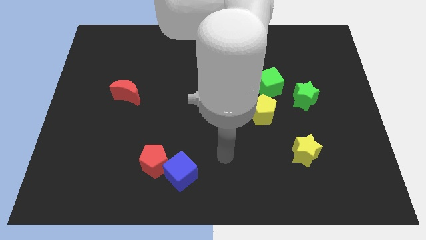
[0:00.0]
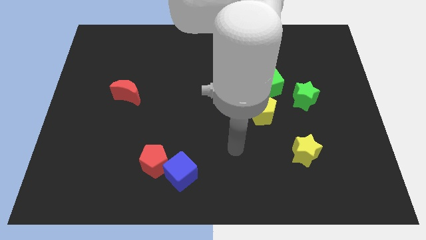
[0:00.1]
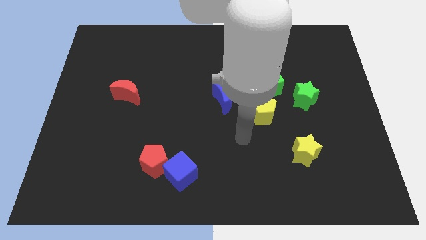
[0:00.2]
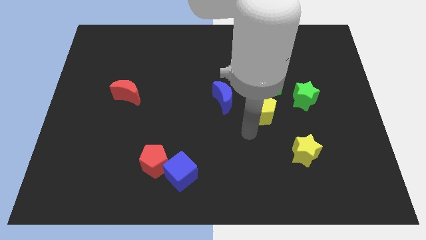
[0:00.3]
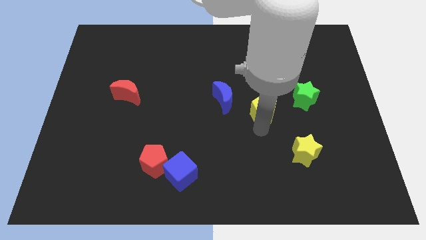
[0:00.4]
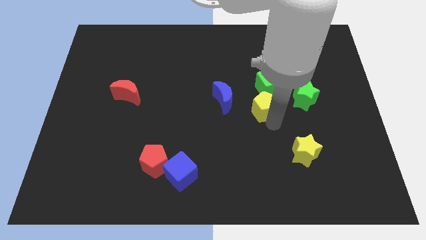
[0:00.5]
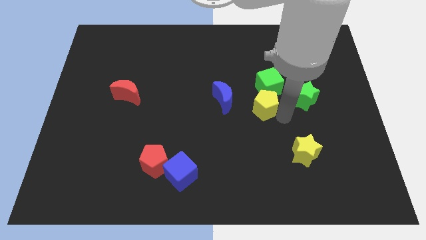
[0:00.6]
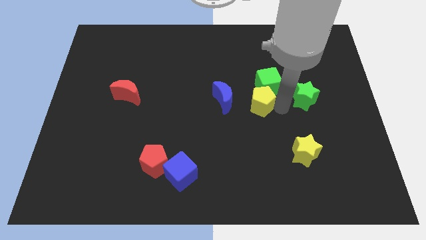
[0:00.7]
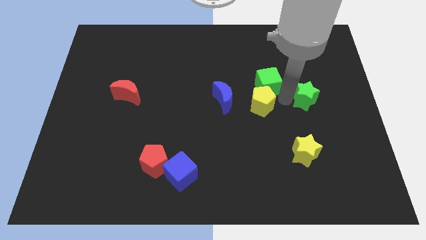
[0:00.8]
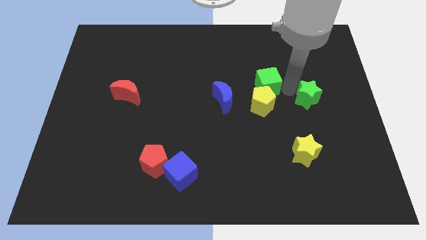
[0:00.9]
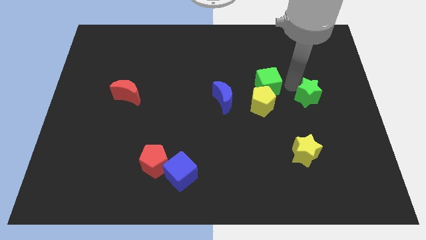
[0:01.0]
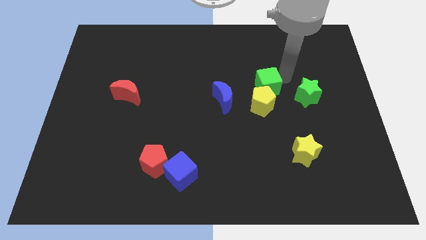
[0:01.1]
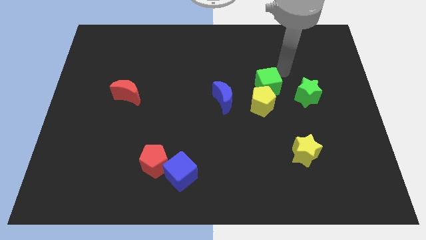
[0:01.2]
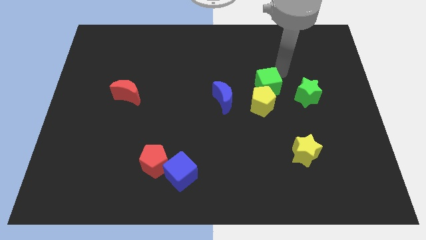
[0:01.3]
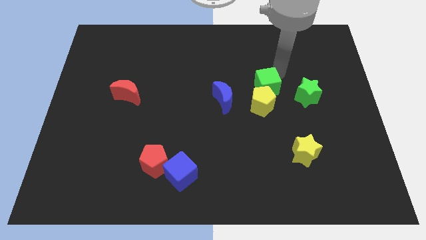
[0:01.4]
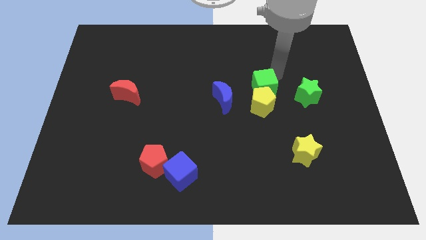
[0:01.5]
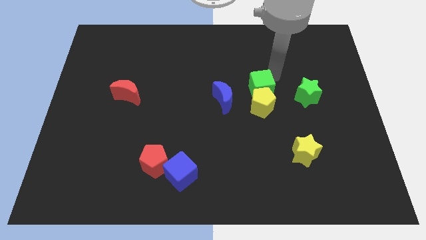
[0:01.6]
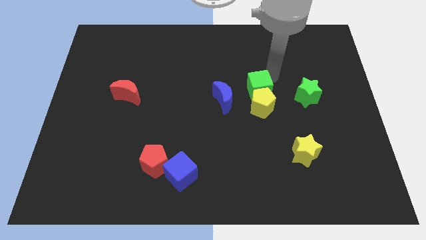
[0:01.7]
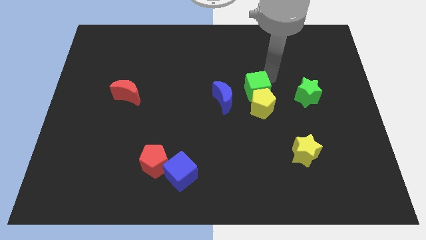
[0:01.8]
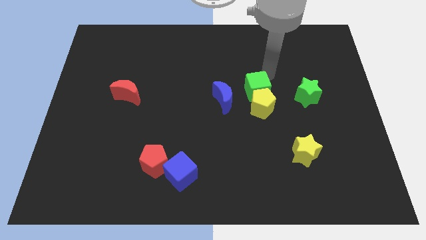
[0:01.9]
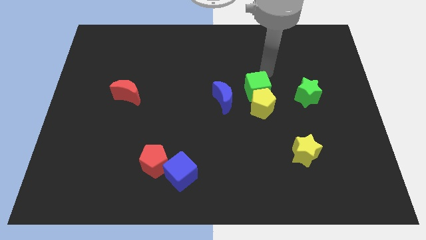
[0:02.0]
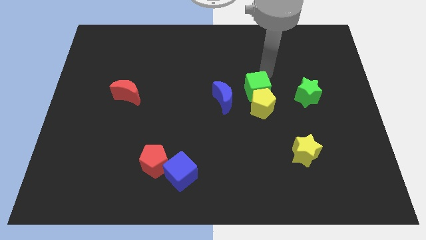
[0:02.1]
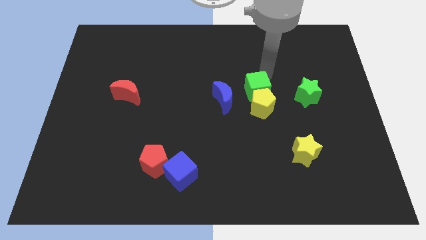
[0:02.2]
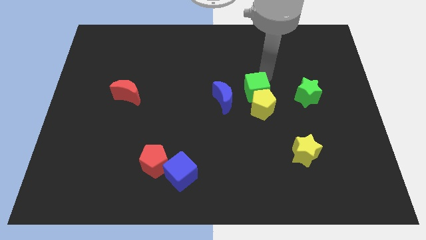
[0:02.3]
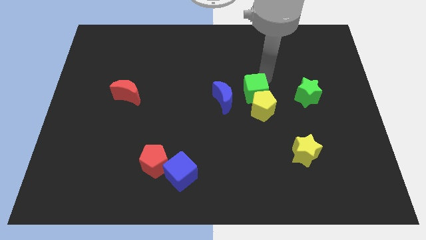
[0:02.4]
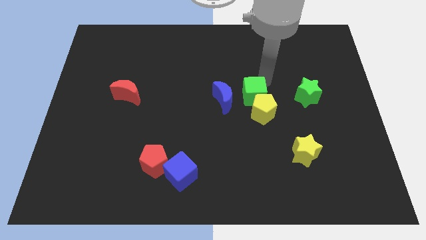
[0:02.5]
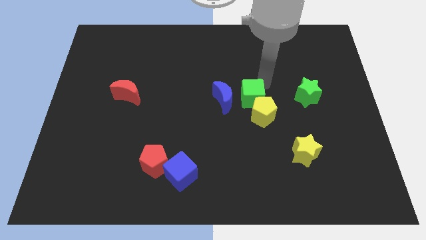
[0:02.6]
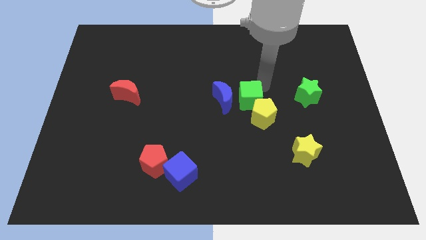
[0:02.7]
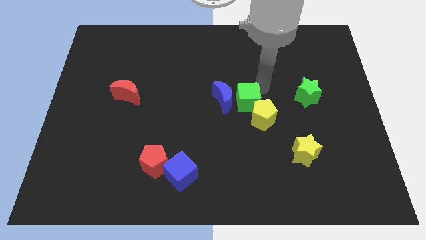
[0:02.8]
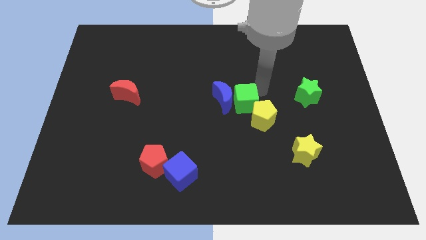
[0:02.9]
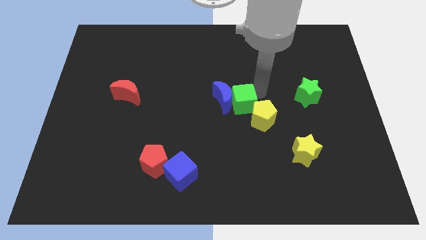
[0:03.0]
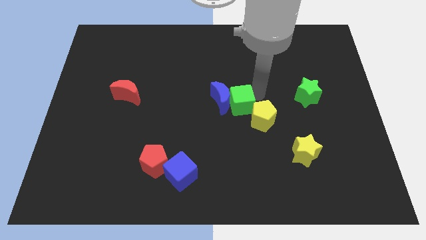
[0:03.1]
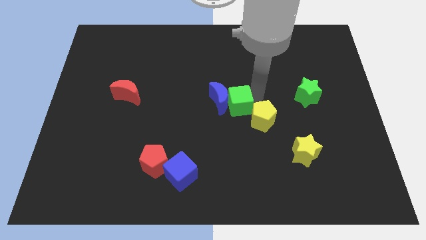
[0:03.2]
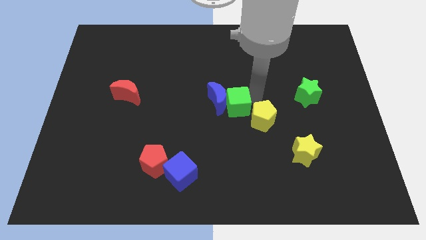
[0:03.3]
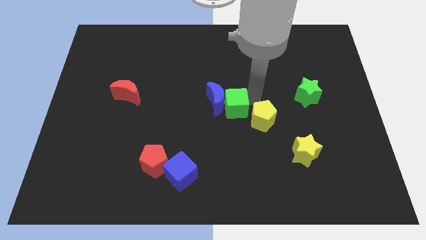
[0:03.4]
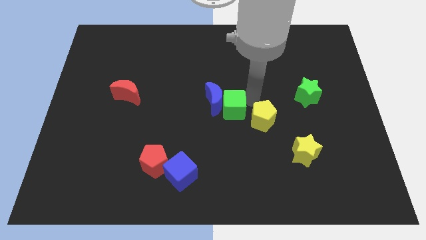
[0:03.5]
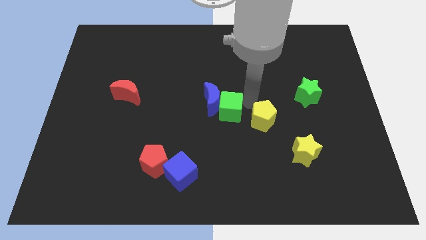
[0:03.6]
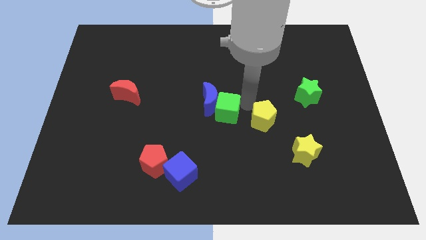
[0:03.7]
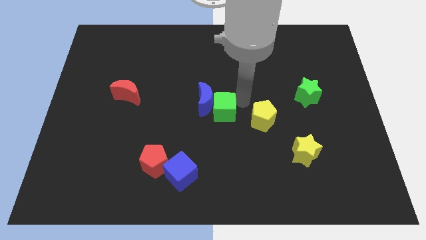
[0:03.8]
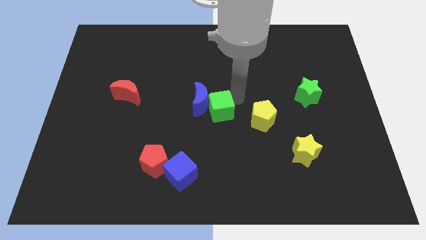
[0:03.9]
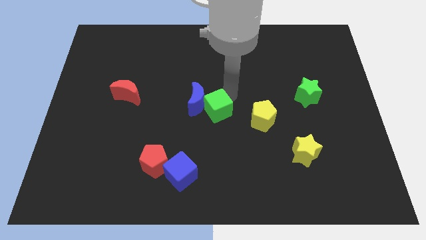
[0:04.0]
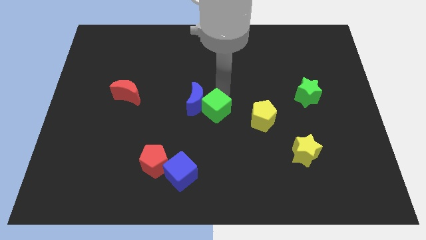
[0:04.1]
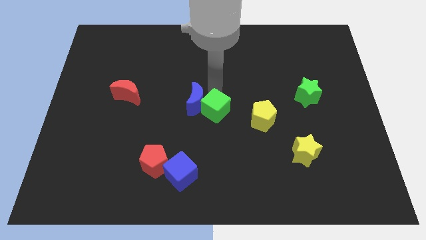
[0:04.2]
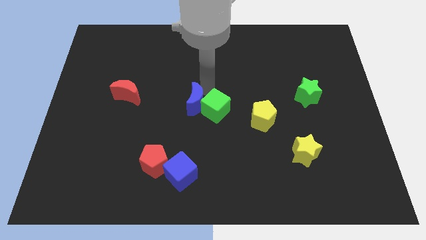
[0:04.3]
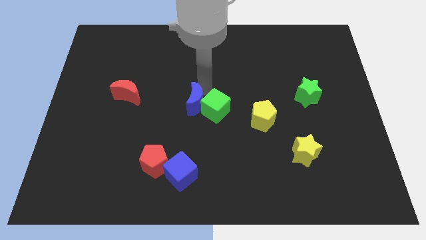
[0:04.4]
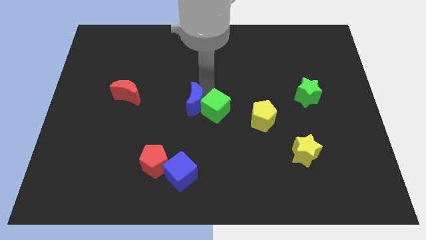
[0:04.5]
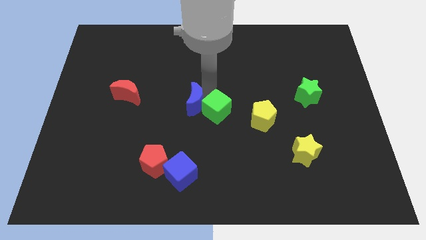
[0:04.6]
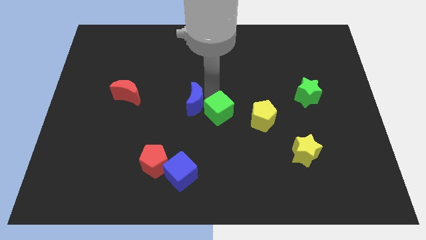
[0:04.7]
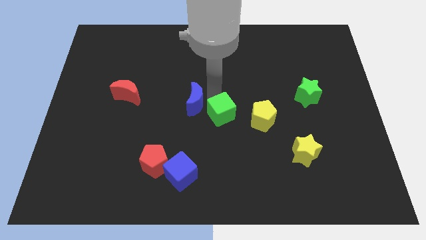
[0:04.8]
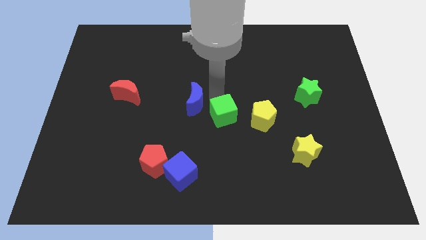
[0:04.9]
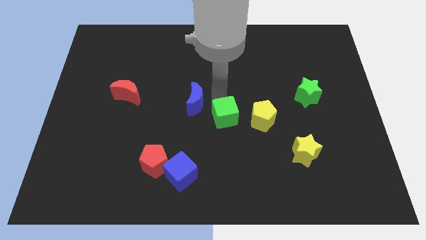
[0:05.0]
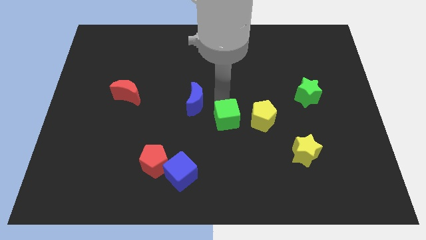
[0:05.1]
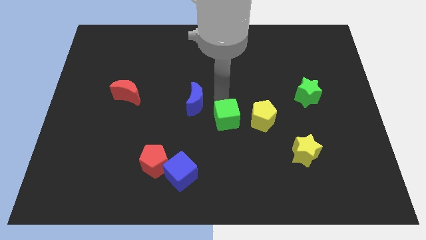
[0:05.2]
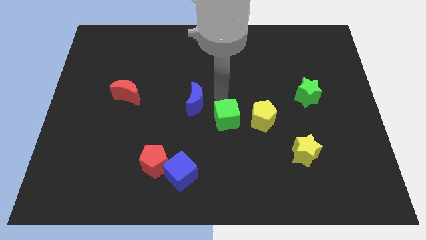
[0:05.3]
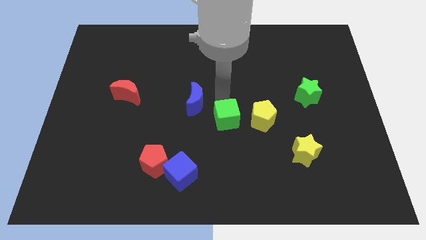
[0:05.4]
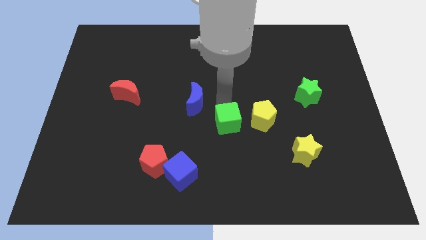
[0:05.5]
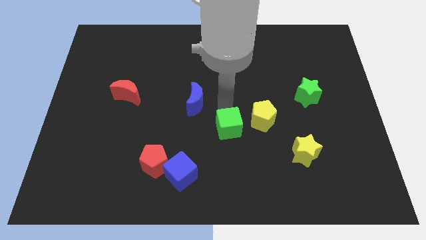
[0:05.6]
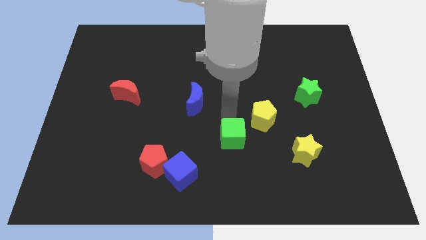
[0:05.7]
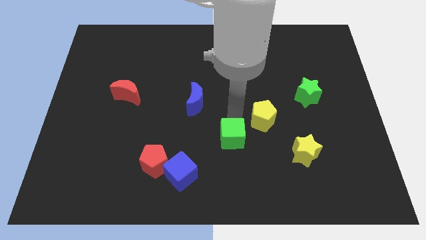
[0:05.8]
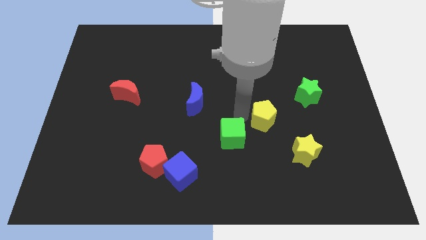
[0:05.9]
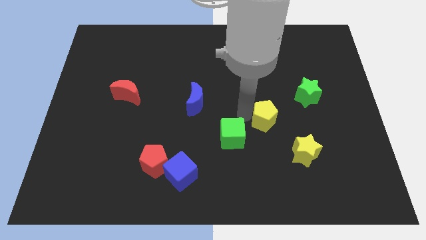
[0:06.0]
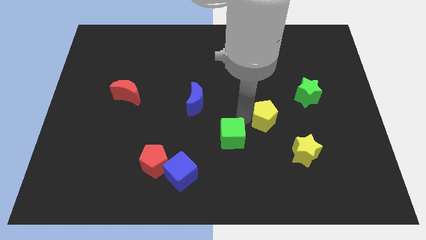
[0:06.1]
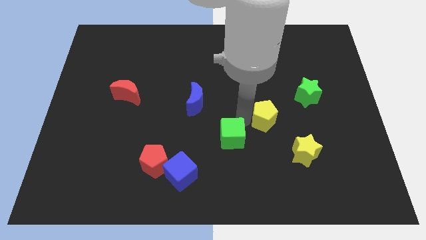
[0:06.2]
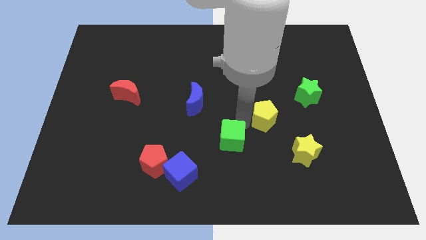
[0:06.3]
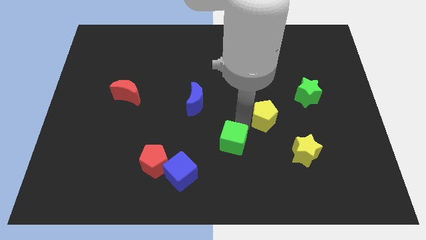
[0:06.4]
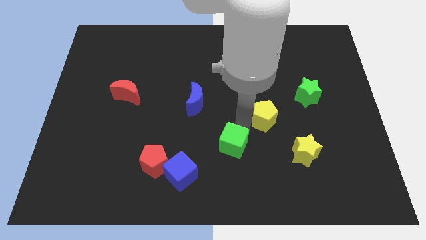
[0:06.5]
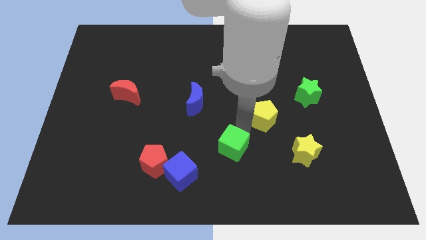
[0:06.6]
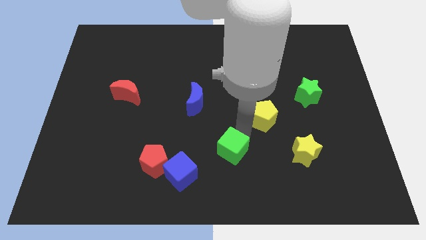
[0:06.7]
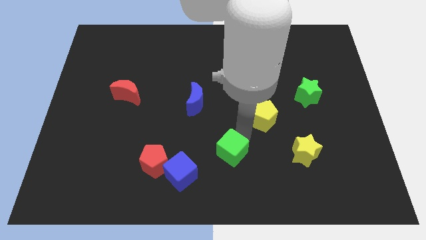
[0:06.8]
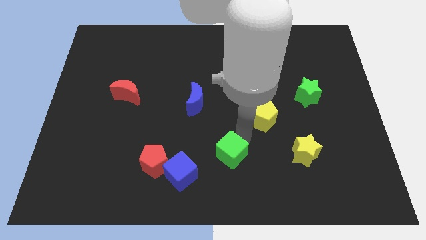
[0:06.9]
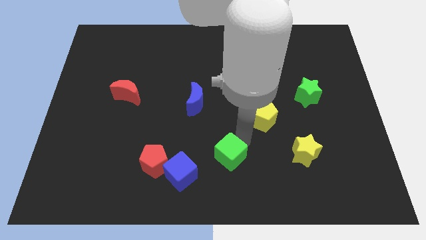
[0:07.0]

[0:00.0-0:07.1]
move the green cube to the bottom

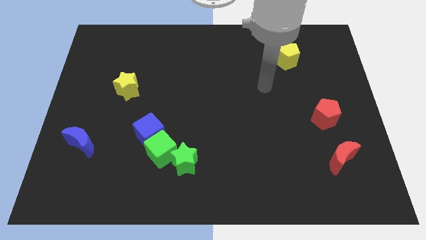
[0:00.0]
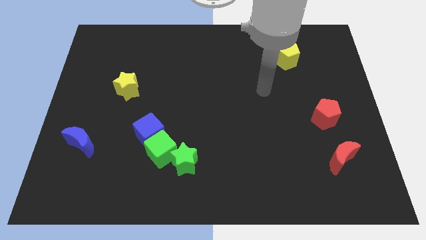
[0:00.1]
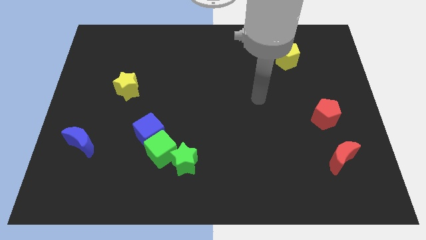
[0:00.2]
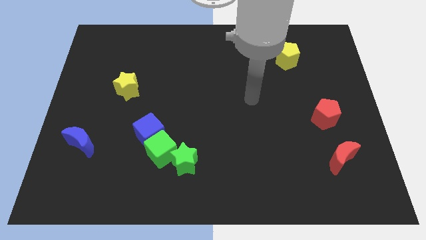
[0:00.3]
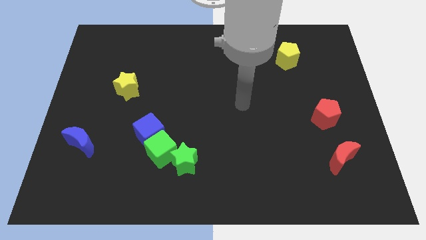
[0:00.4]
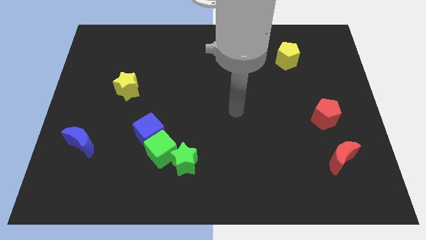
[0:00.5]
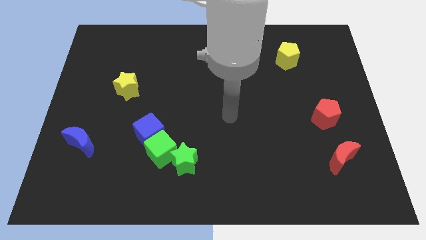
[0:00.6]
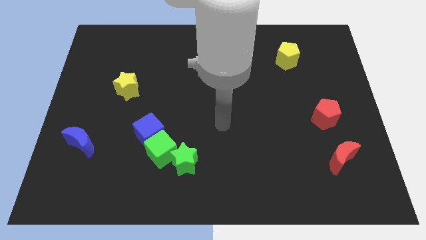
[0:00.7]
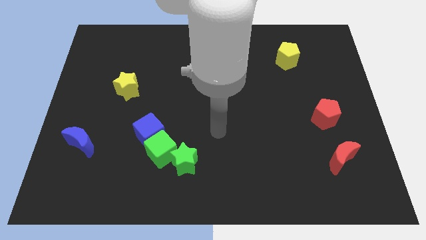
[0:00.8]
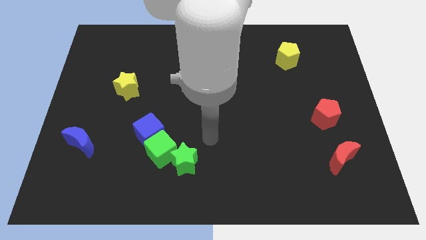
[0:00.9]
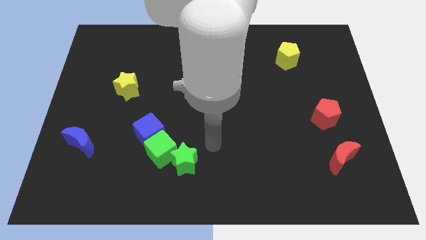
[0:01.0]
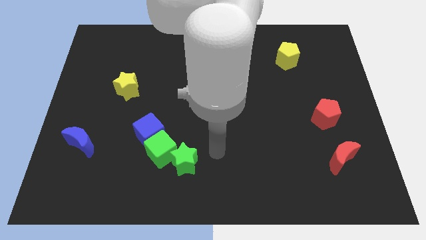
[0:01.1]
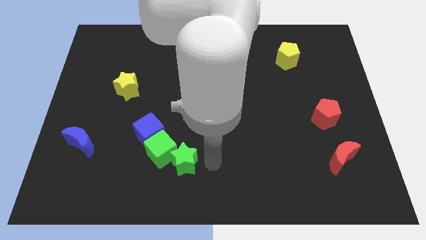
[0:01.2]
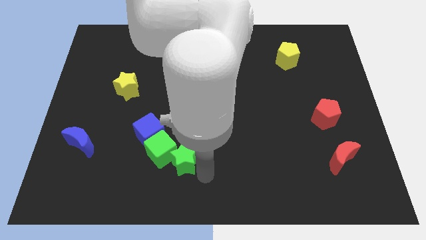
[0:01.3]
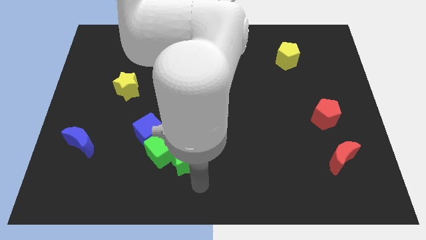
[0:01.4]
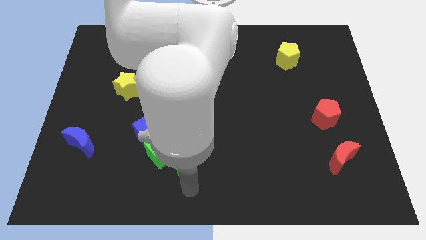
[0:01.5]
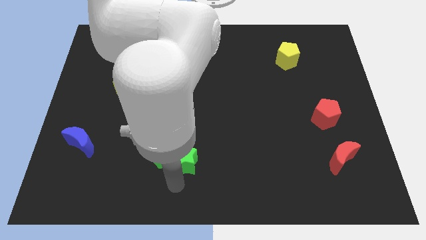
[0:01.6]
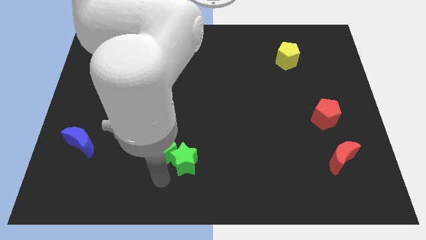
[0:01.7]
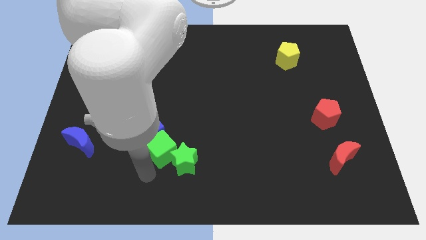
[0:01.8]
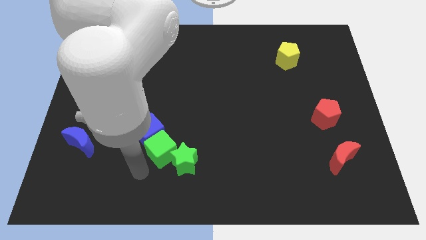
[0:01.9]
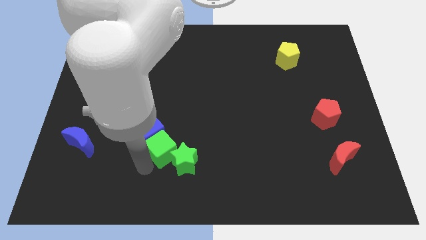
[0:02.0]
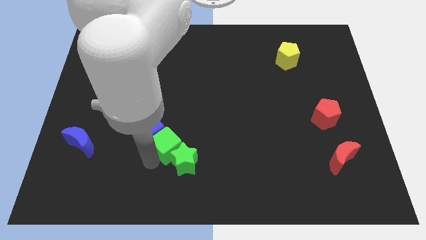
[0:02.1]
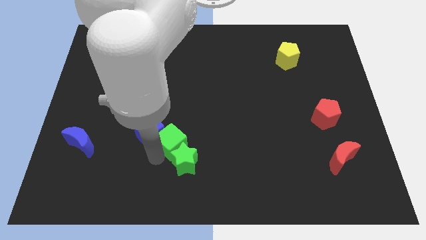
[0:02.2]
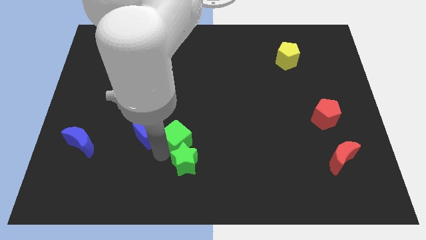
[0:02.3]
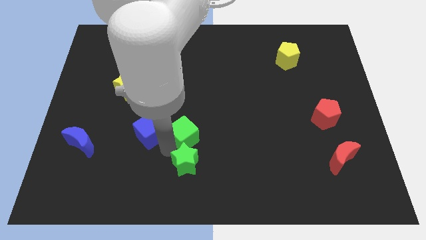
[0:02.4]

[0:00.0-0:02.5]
put the green cube to the middle
